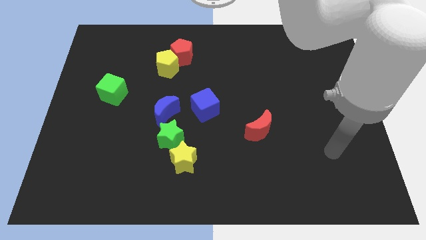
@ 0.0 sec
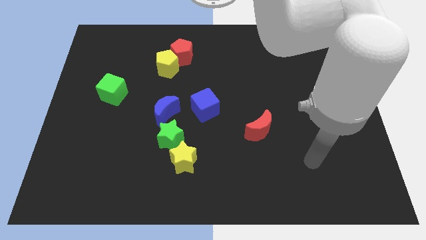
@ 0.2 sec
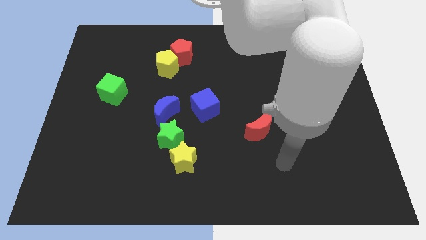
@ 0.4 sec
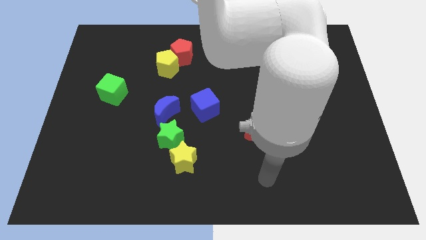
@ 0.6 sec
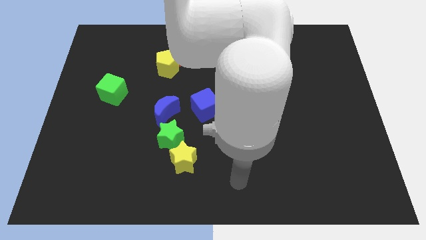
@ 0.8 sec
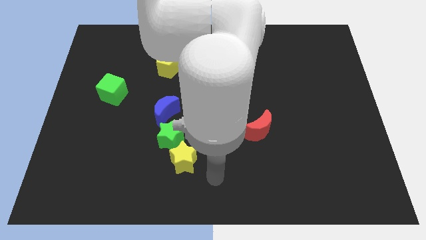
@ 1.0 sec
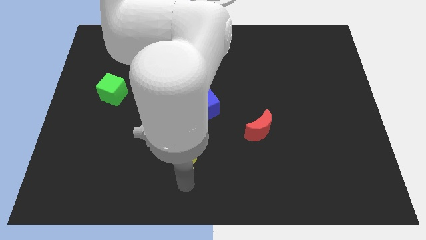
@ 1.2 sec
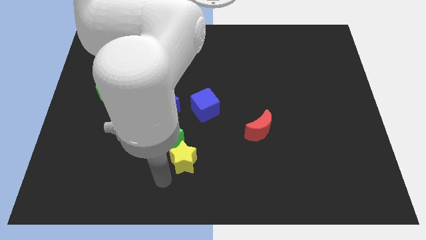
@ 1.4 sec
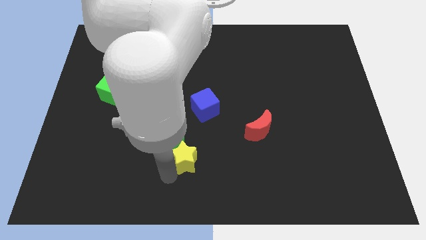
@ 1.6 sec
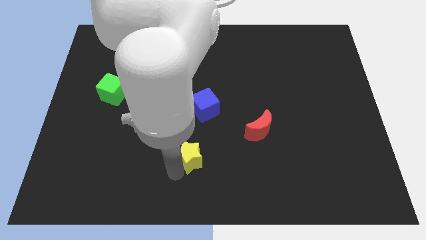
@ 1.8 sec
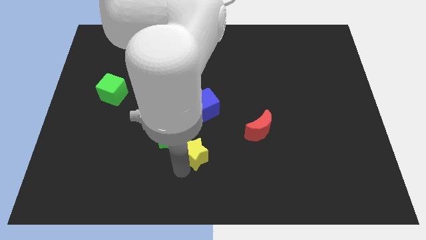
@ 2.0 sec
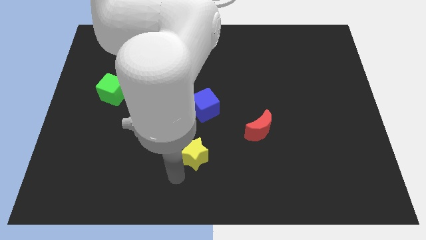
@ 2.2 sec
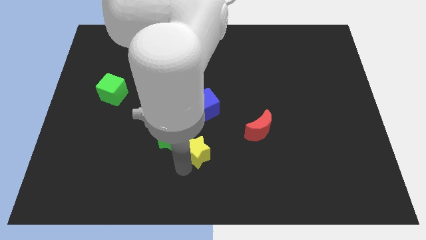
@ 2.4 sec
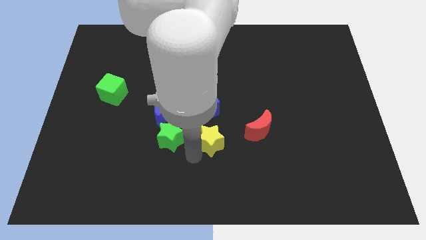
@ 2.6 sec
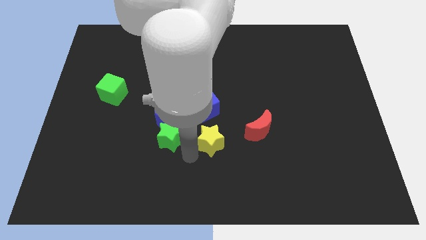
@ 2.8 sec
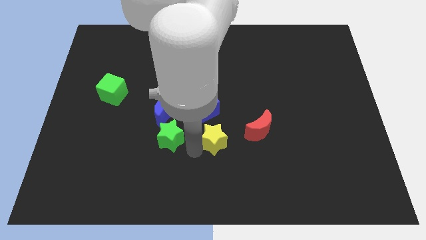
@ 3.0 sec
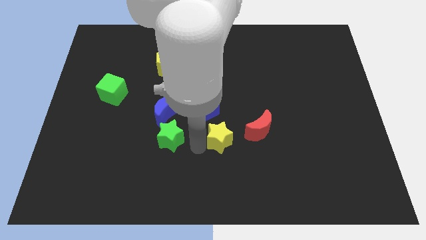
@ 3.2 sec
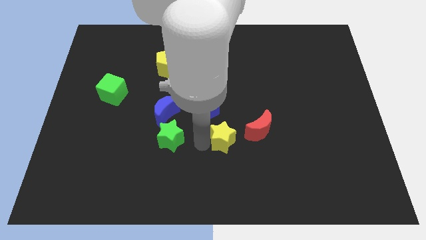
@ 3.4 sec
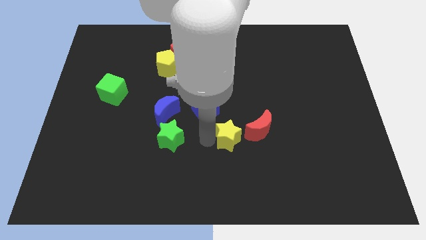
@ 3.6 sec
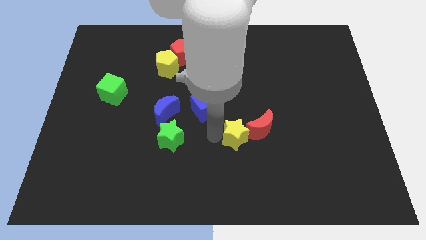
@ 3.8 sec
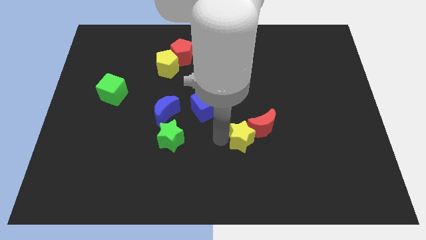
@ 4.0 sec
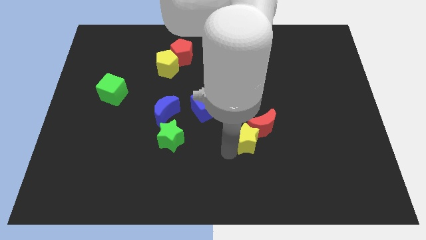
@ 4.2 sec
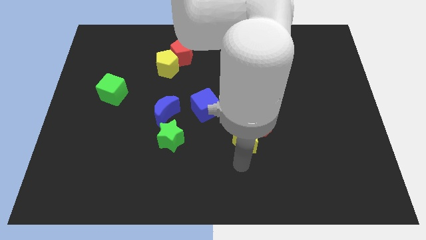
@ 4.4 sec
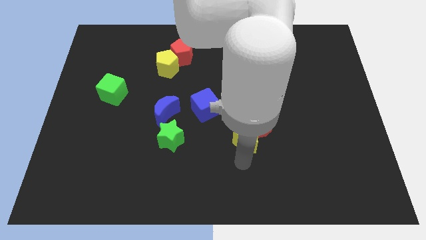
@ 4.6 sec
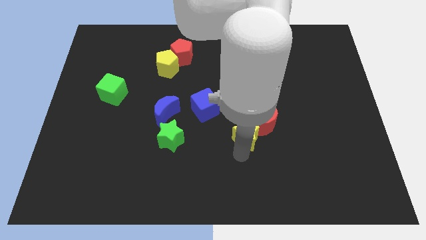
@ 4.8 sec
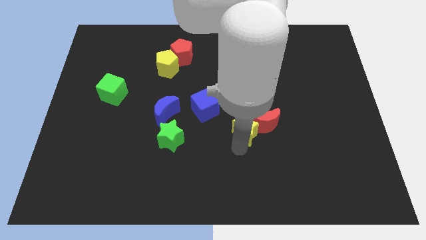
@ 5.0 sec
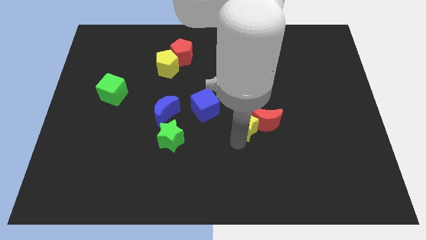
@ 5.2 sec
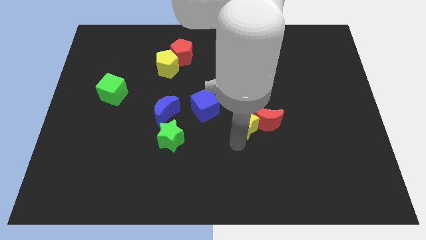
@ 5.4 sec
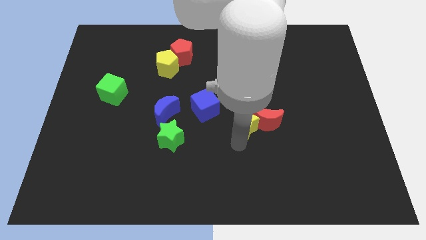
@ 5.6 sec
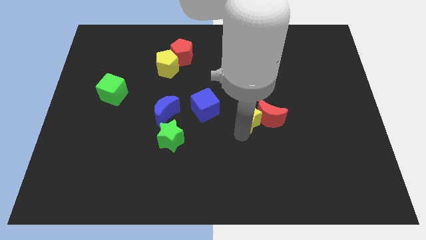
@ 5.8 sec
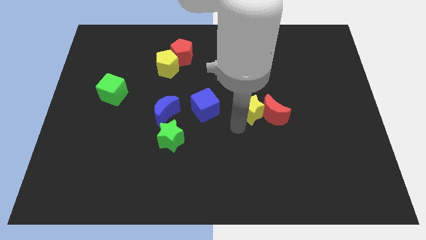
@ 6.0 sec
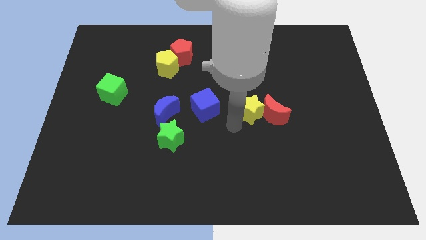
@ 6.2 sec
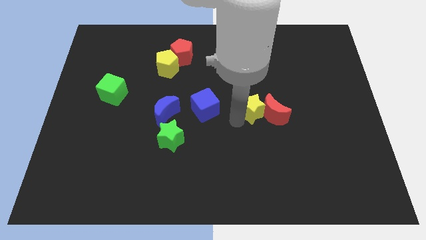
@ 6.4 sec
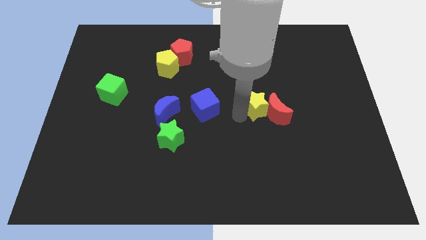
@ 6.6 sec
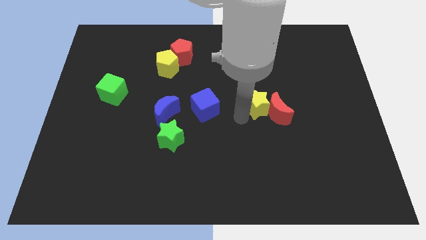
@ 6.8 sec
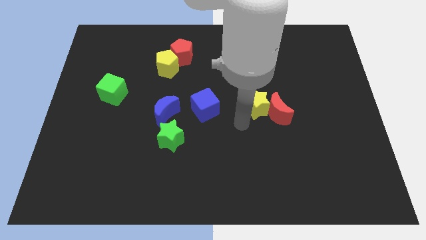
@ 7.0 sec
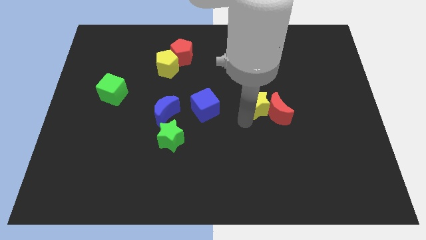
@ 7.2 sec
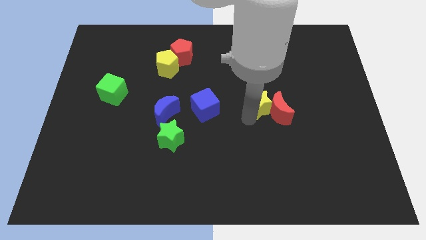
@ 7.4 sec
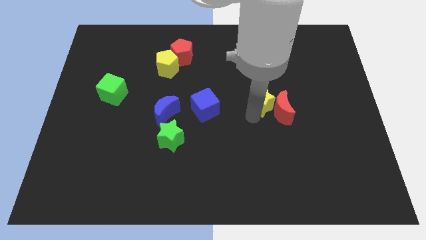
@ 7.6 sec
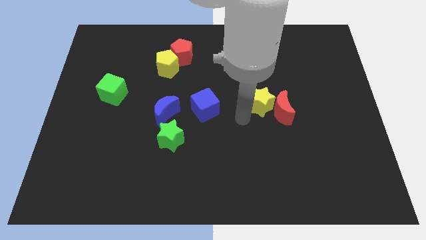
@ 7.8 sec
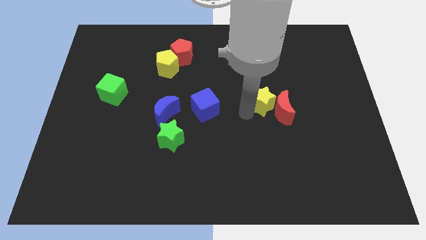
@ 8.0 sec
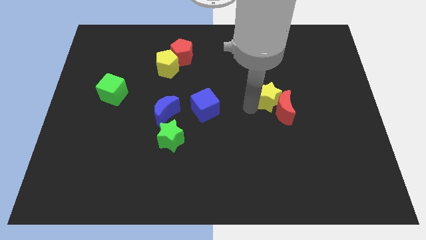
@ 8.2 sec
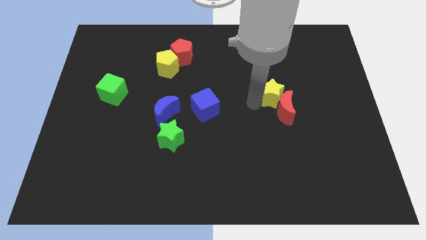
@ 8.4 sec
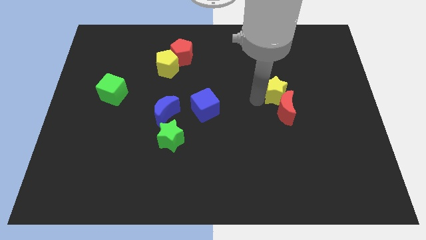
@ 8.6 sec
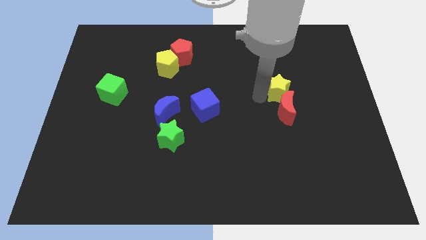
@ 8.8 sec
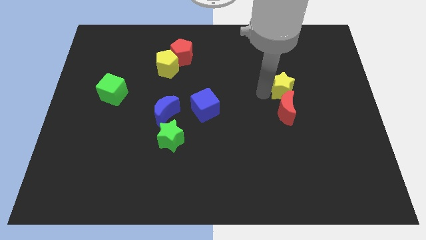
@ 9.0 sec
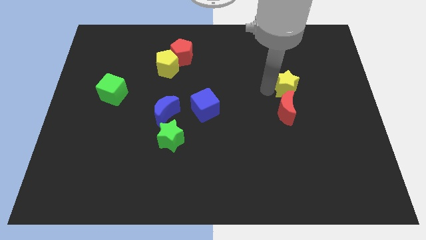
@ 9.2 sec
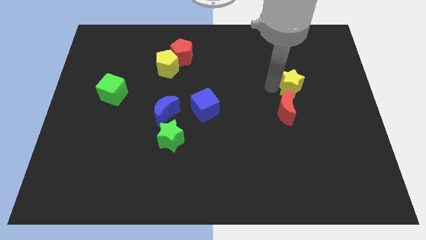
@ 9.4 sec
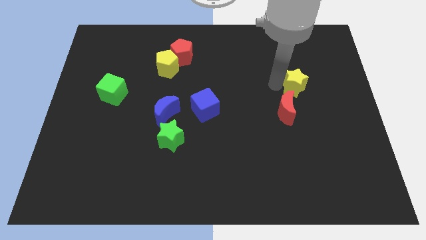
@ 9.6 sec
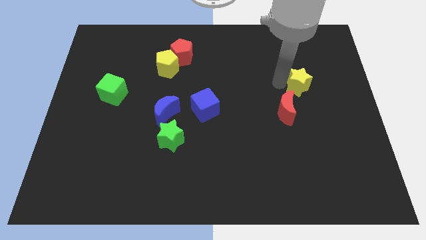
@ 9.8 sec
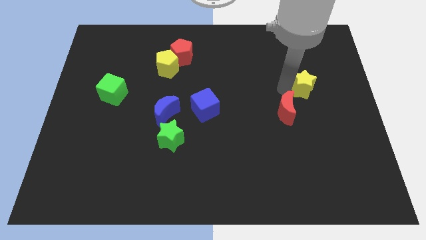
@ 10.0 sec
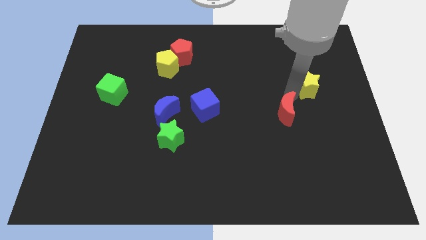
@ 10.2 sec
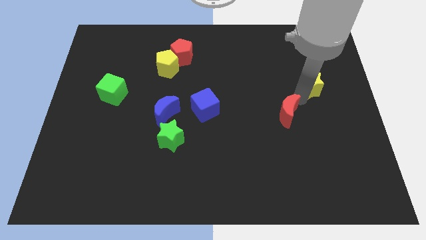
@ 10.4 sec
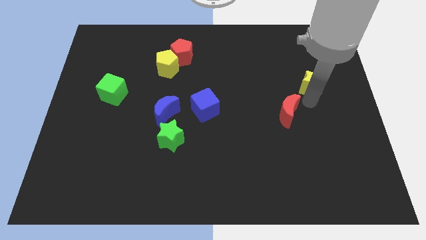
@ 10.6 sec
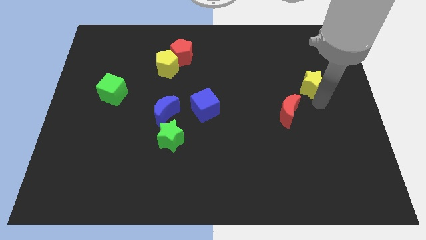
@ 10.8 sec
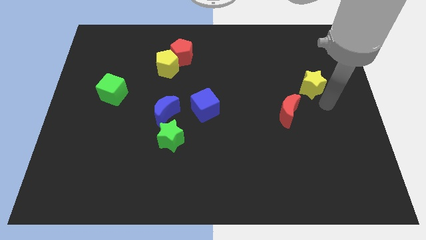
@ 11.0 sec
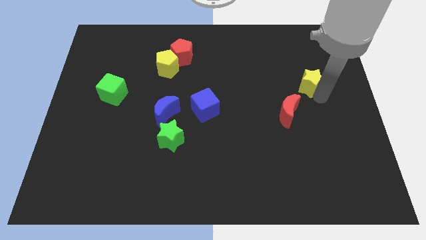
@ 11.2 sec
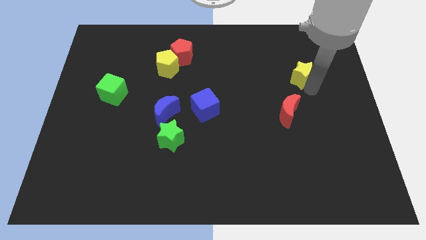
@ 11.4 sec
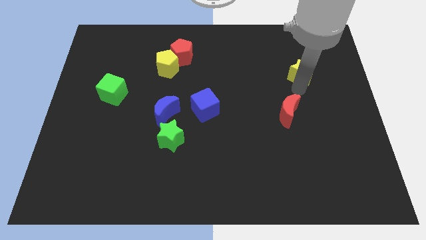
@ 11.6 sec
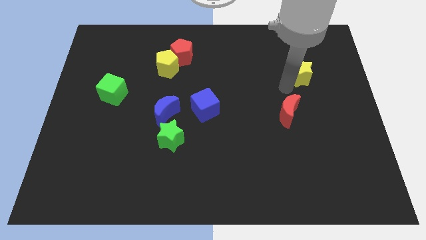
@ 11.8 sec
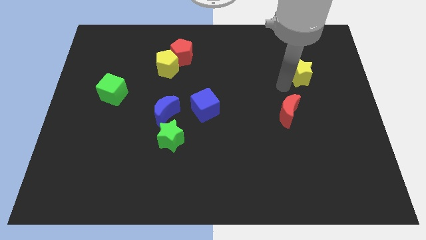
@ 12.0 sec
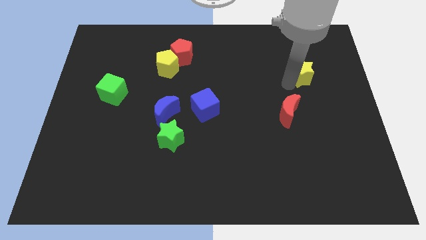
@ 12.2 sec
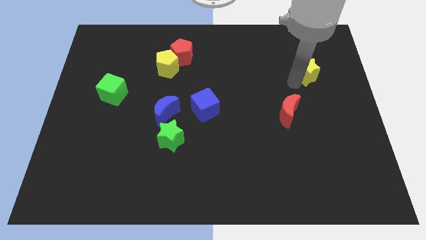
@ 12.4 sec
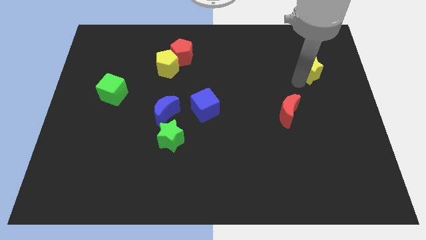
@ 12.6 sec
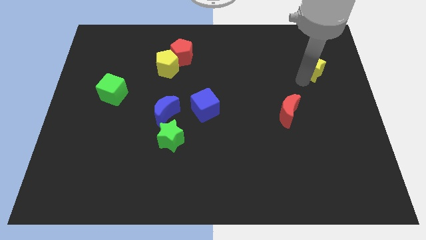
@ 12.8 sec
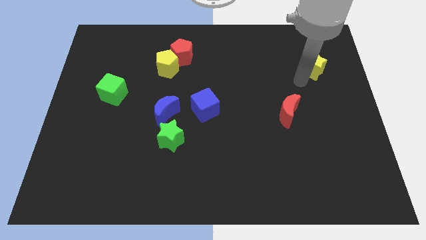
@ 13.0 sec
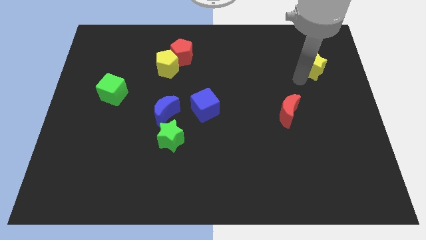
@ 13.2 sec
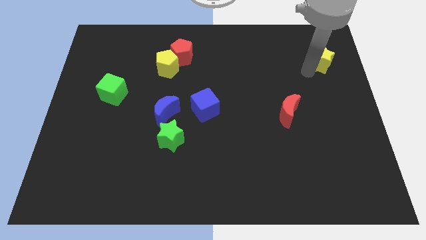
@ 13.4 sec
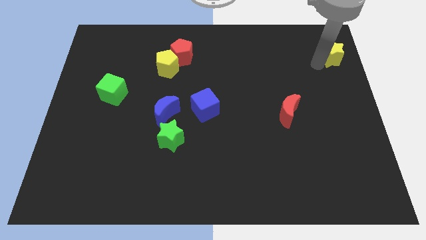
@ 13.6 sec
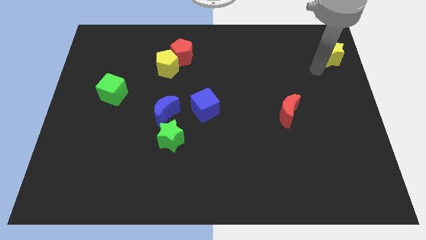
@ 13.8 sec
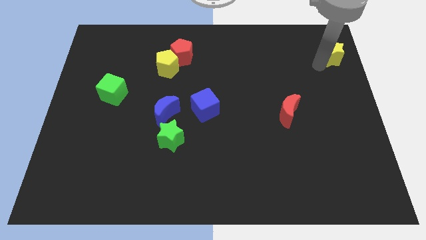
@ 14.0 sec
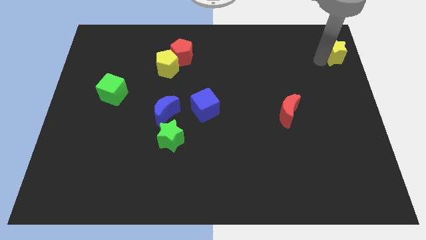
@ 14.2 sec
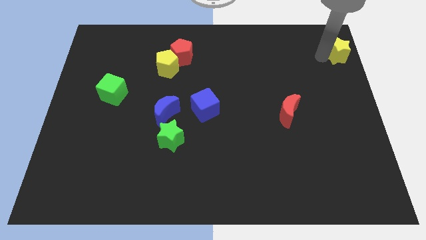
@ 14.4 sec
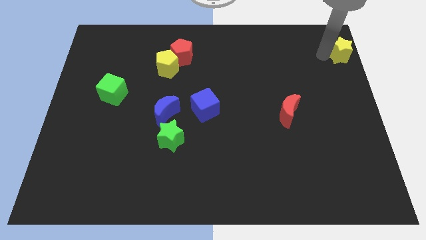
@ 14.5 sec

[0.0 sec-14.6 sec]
put the yellow star to the top right corner
